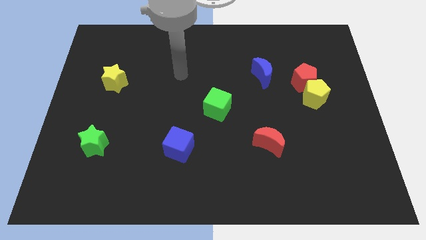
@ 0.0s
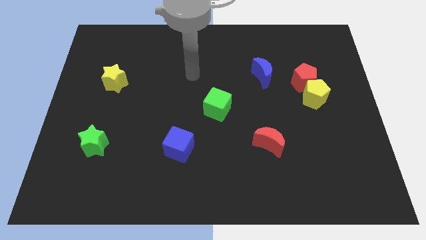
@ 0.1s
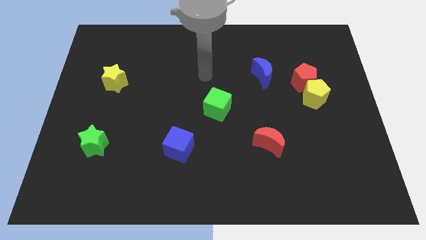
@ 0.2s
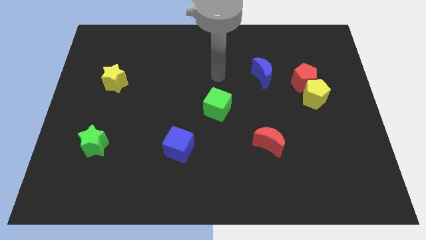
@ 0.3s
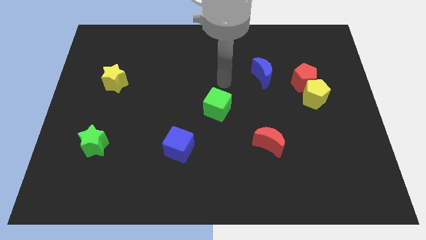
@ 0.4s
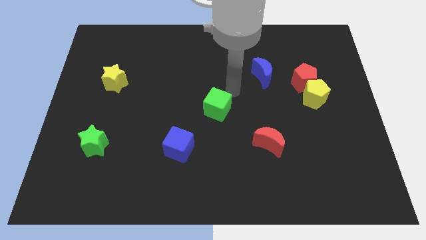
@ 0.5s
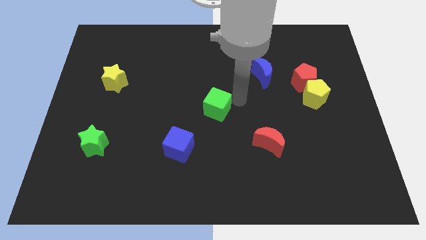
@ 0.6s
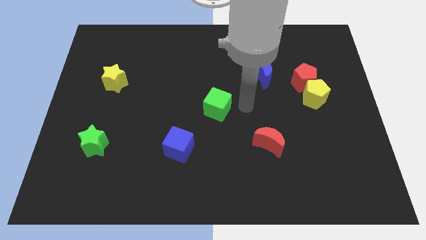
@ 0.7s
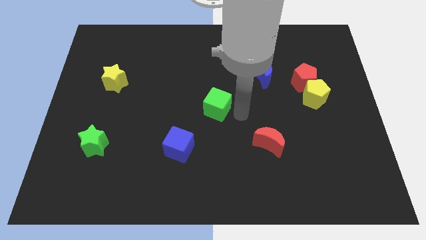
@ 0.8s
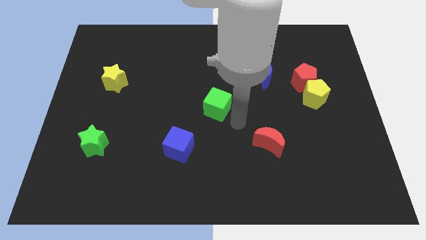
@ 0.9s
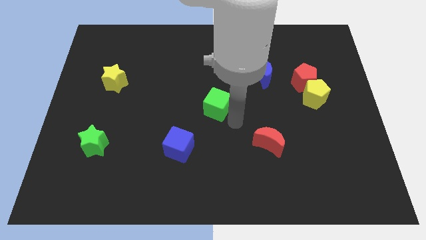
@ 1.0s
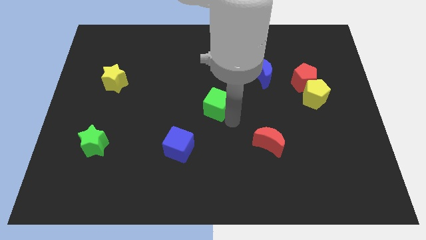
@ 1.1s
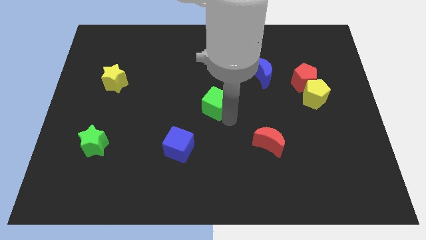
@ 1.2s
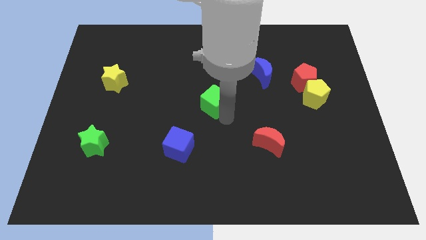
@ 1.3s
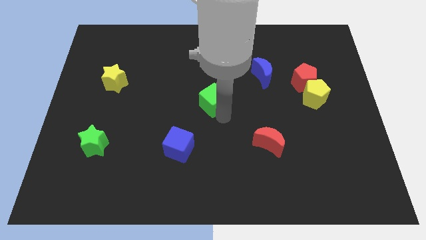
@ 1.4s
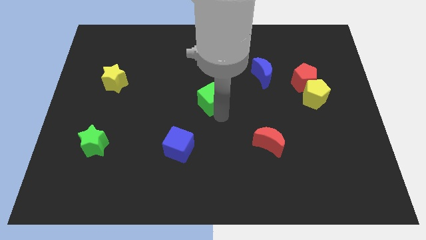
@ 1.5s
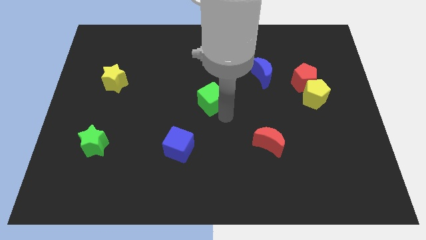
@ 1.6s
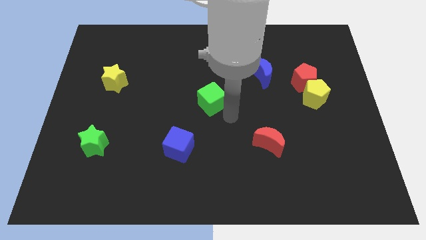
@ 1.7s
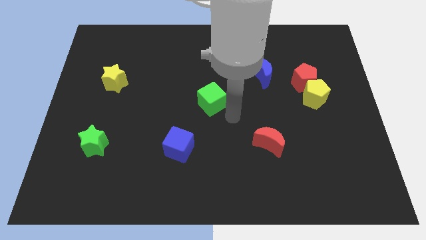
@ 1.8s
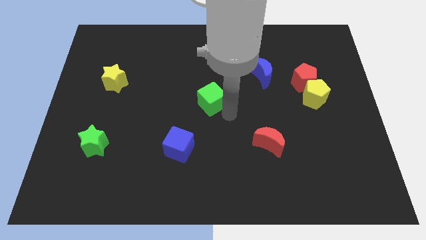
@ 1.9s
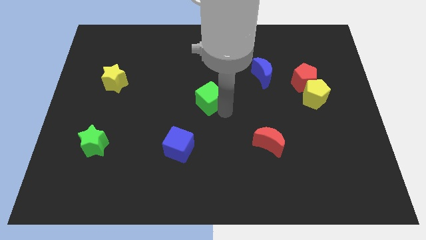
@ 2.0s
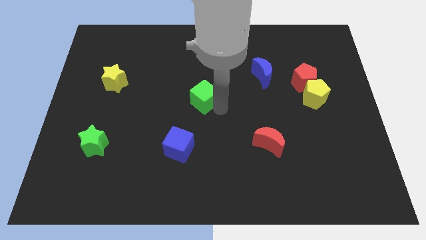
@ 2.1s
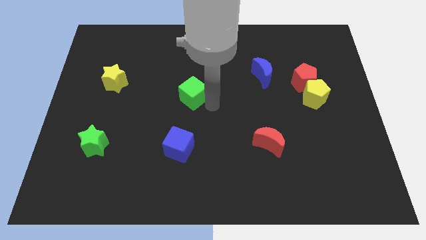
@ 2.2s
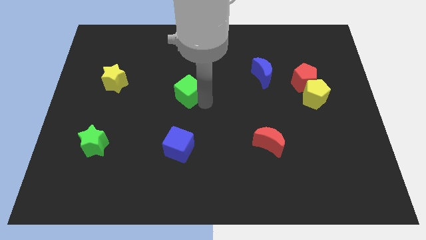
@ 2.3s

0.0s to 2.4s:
move the green cube a bit up and then left

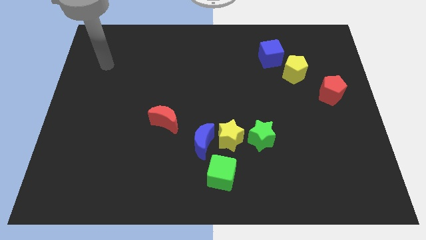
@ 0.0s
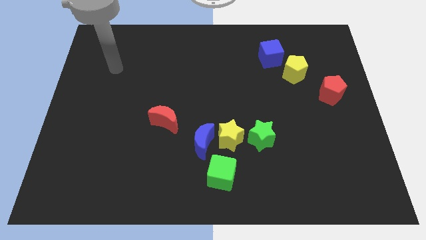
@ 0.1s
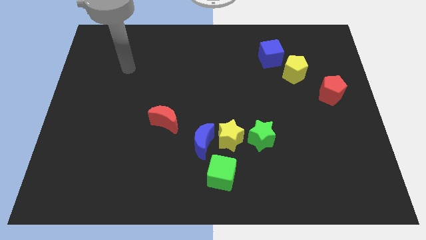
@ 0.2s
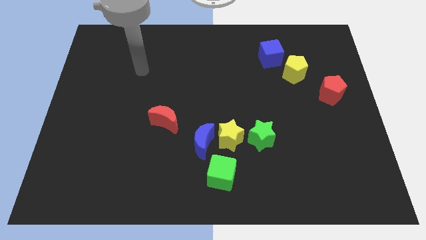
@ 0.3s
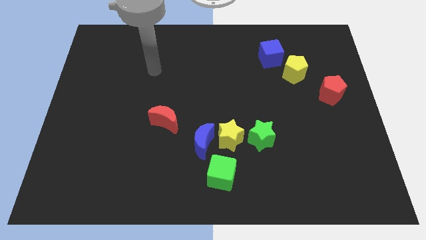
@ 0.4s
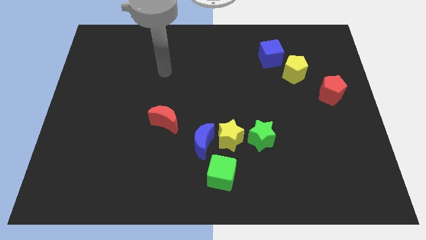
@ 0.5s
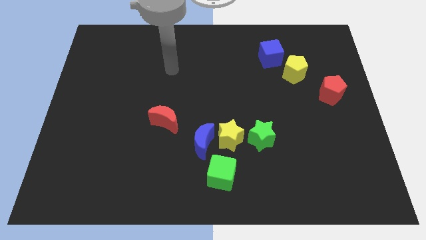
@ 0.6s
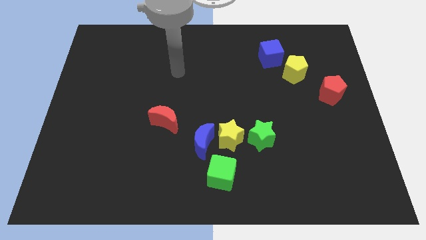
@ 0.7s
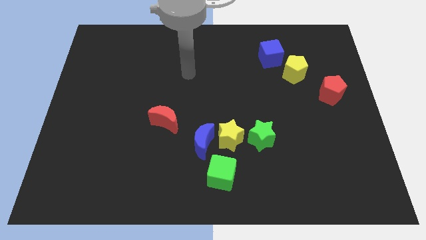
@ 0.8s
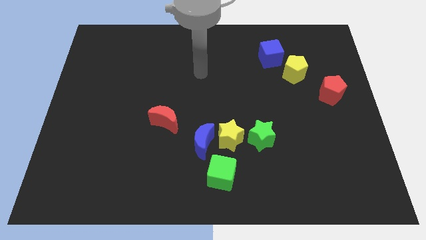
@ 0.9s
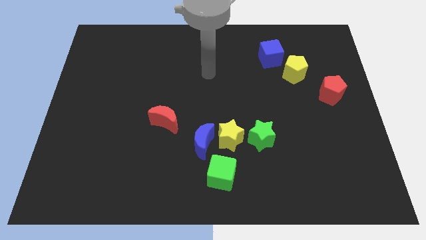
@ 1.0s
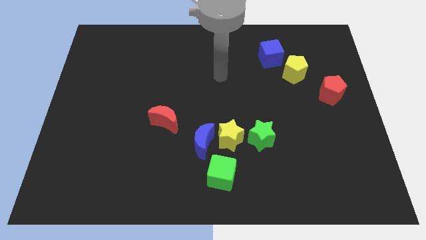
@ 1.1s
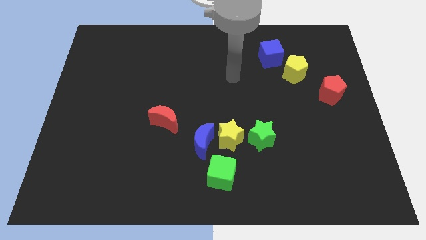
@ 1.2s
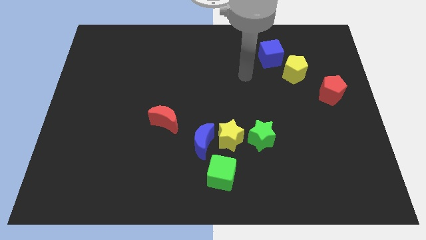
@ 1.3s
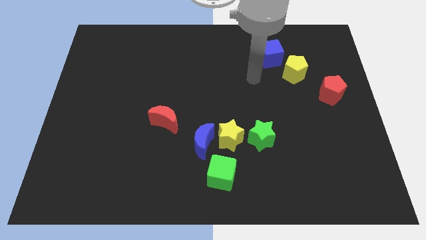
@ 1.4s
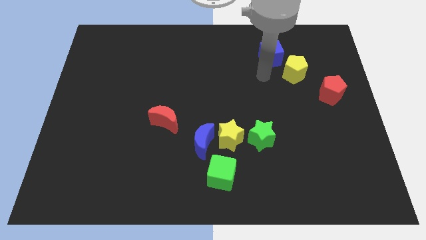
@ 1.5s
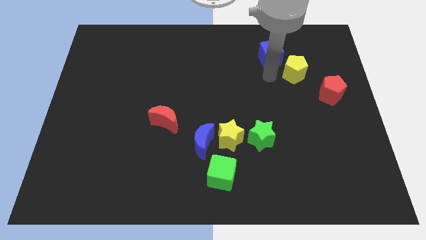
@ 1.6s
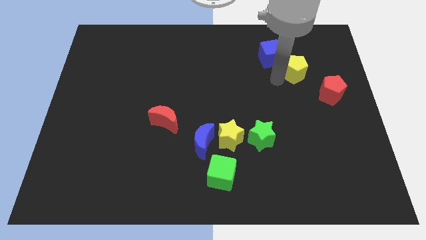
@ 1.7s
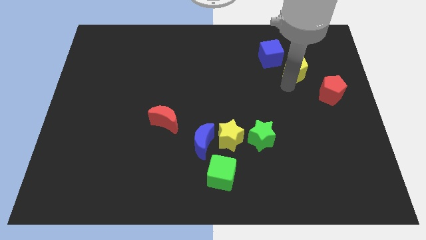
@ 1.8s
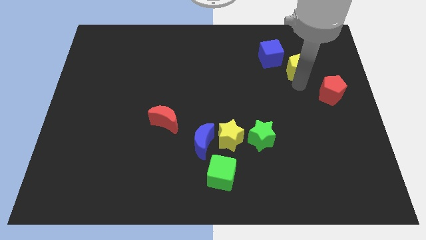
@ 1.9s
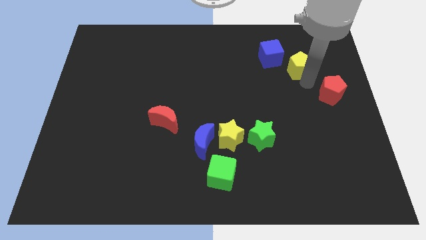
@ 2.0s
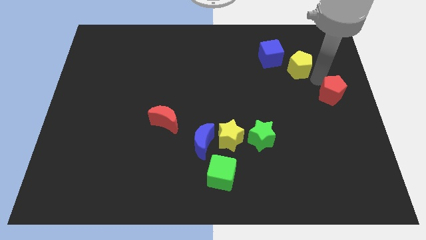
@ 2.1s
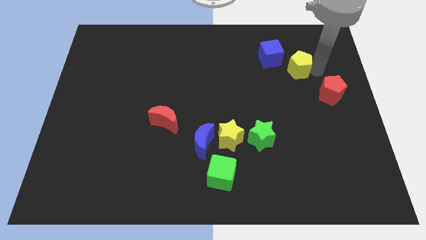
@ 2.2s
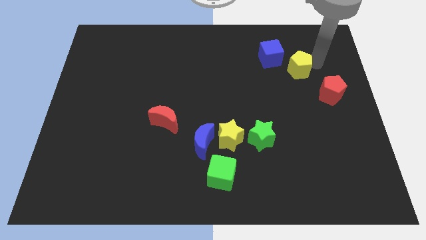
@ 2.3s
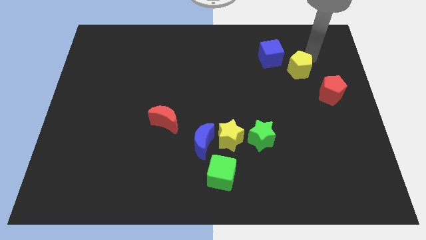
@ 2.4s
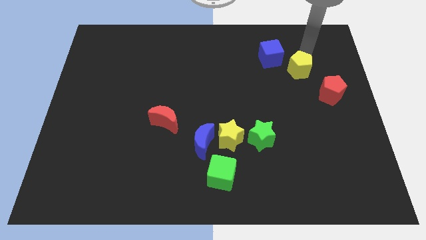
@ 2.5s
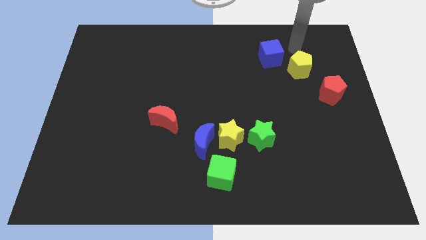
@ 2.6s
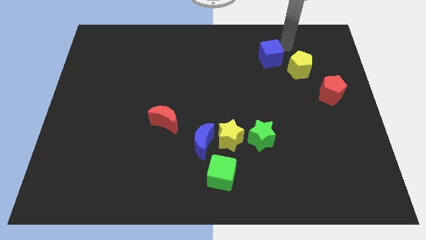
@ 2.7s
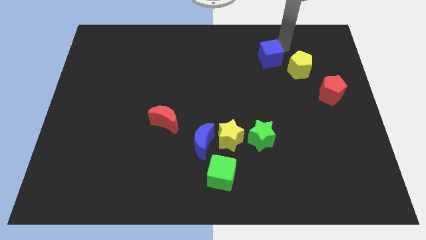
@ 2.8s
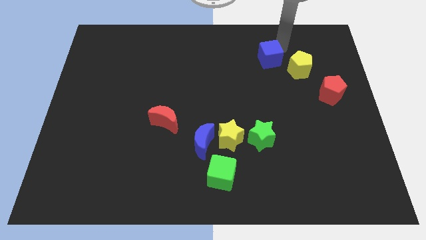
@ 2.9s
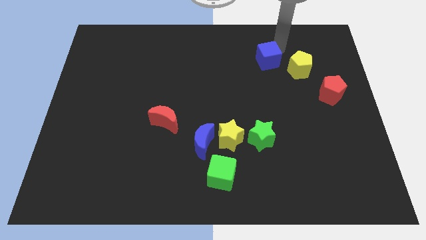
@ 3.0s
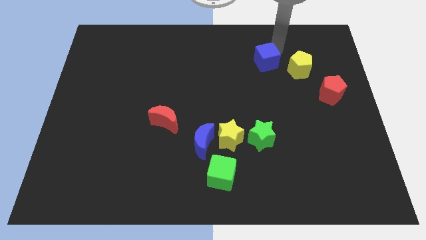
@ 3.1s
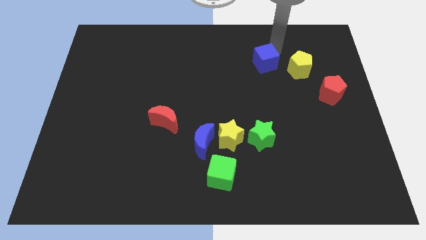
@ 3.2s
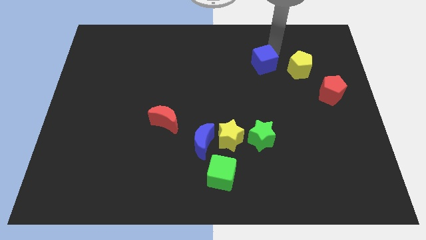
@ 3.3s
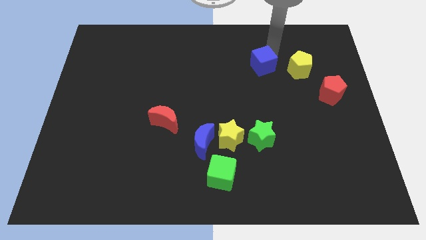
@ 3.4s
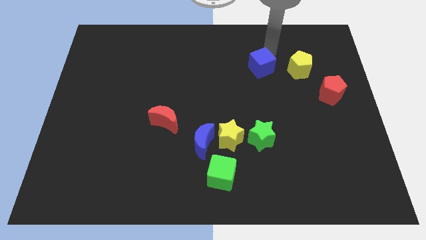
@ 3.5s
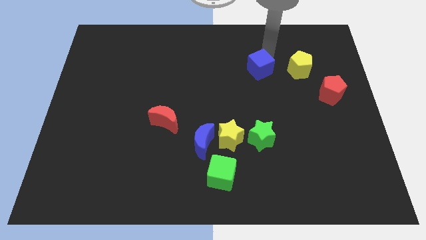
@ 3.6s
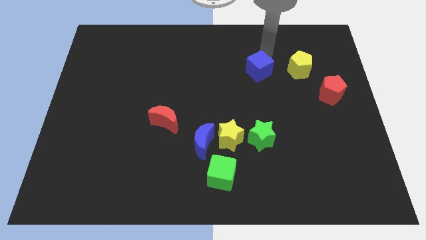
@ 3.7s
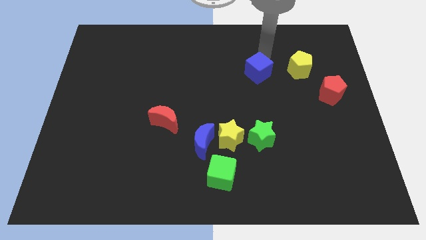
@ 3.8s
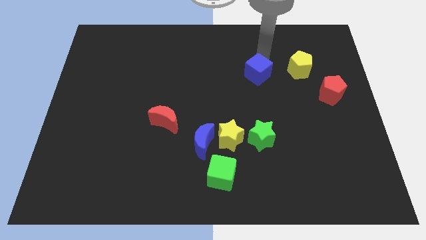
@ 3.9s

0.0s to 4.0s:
slightly push the blue cube downwards and then left

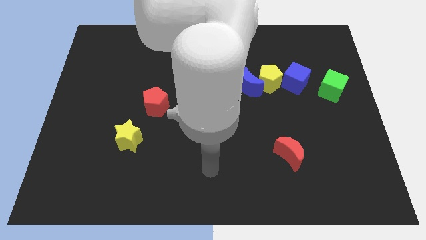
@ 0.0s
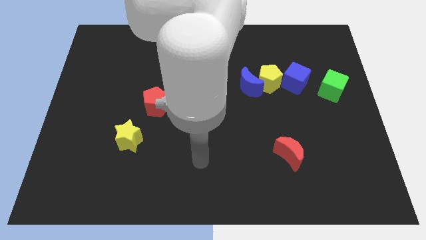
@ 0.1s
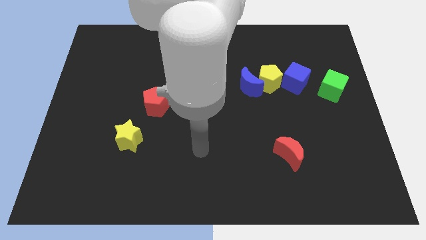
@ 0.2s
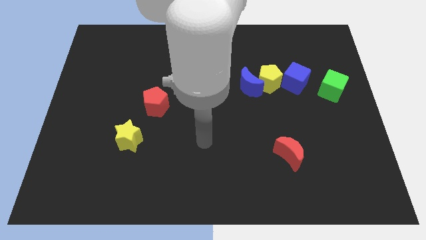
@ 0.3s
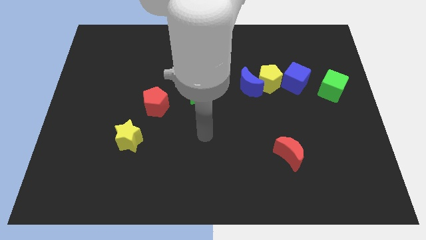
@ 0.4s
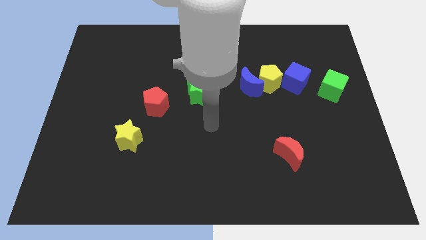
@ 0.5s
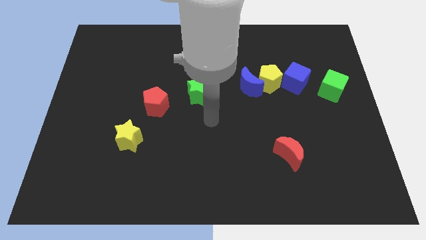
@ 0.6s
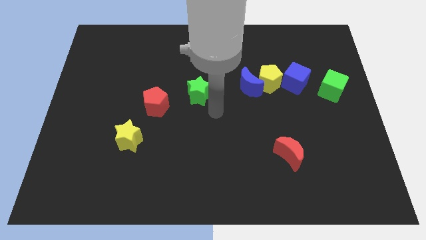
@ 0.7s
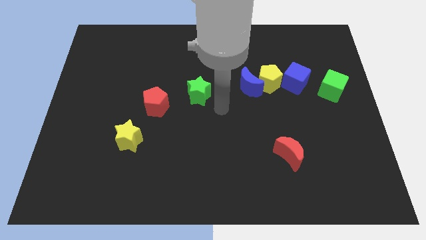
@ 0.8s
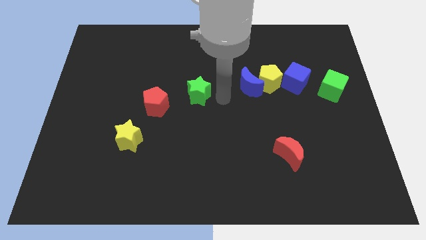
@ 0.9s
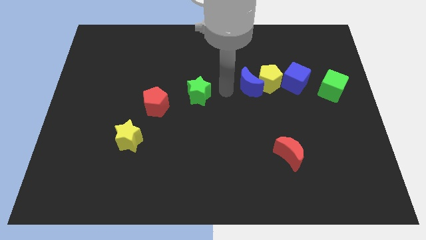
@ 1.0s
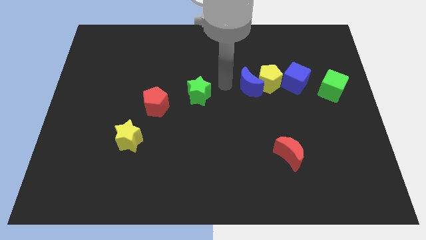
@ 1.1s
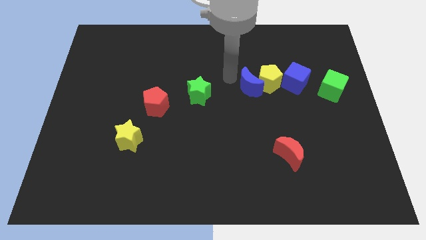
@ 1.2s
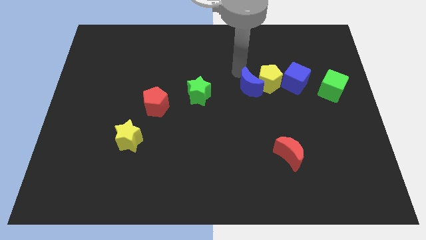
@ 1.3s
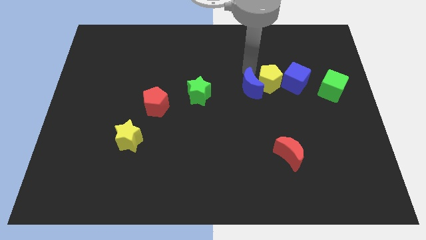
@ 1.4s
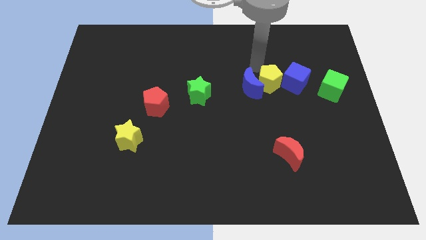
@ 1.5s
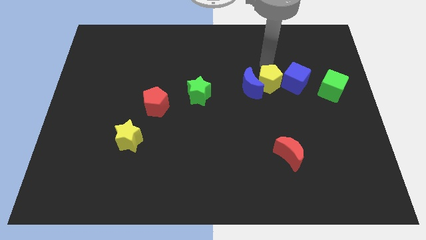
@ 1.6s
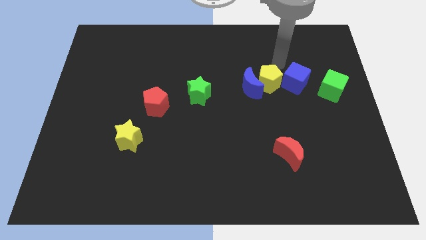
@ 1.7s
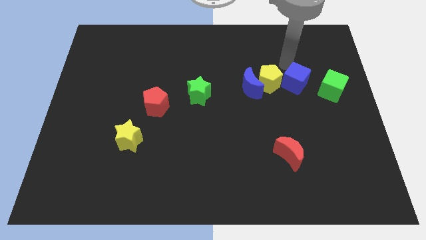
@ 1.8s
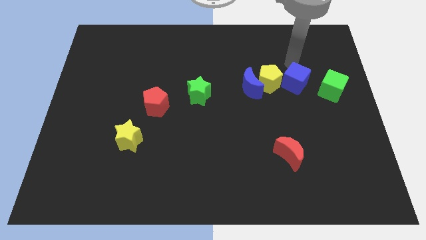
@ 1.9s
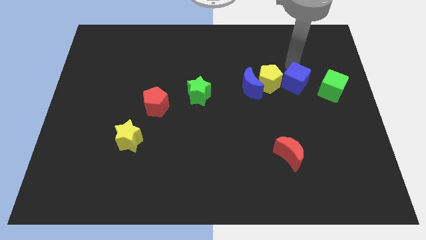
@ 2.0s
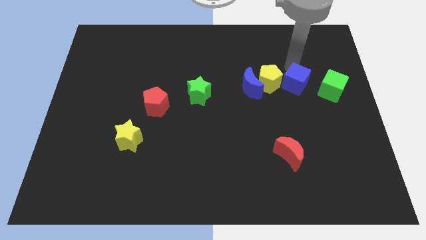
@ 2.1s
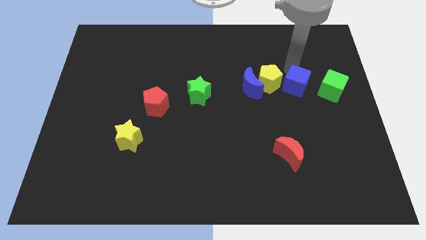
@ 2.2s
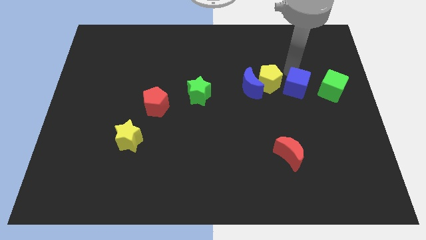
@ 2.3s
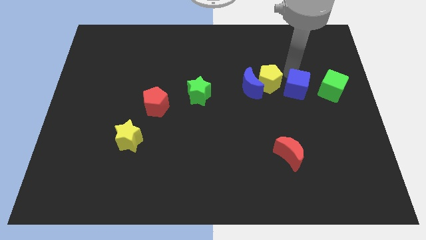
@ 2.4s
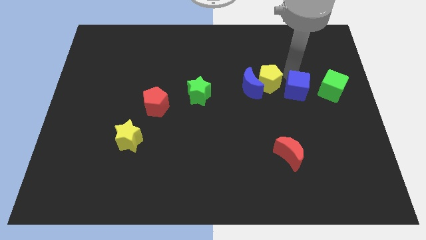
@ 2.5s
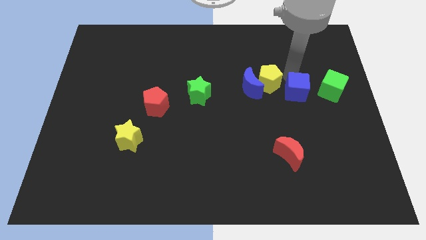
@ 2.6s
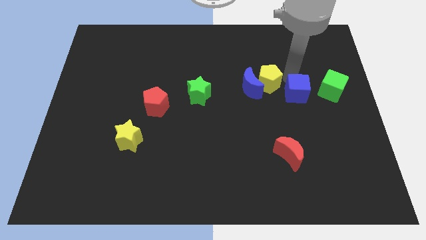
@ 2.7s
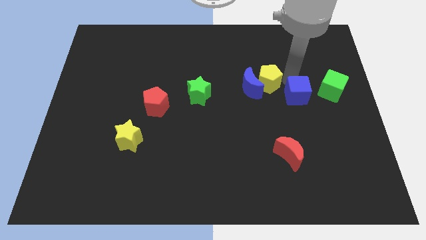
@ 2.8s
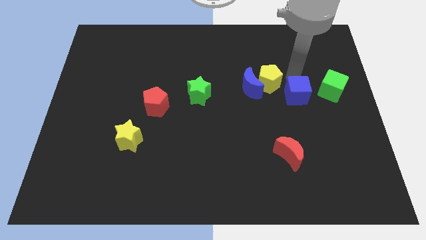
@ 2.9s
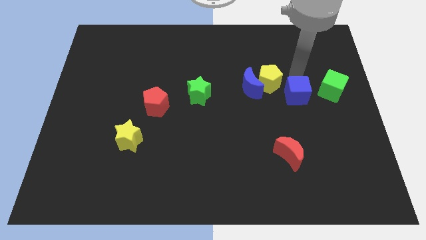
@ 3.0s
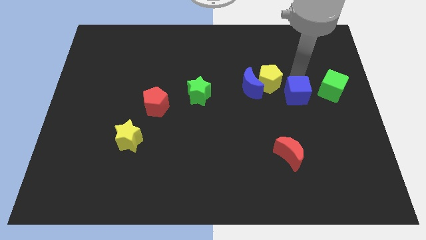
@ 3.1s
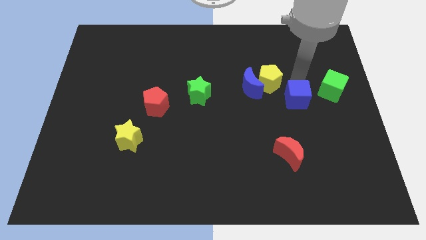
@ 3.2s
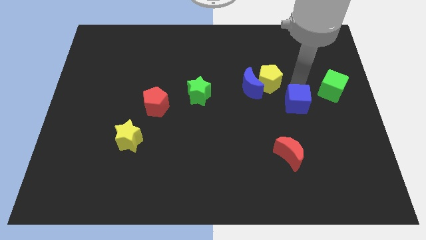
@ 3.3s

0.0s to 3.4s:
move the blue cube a bit downwards
